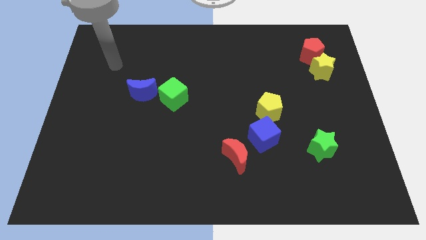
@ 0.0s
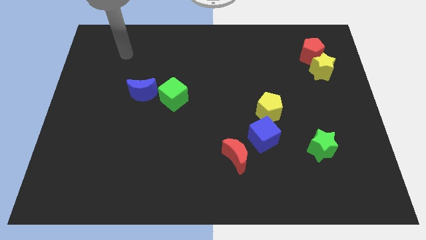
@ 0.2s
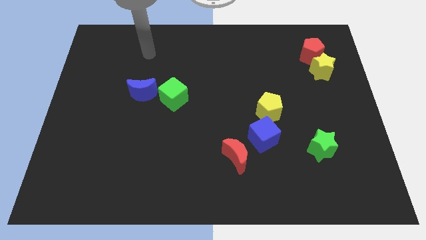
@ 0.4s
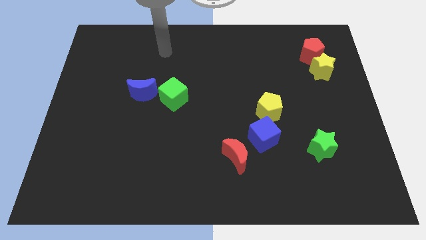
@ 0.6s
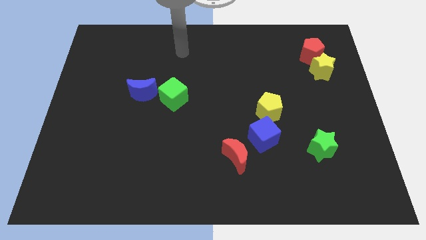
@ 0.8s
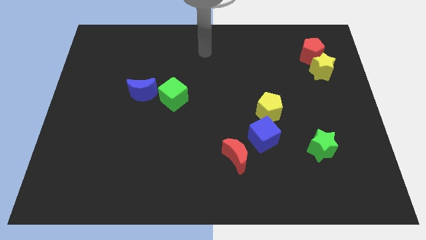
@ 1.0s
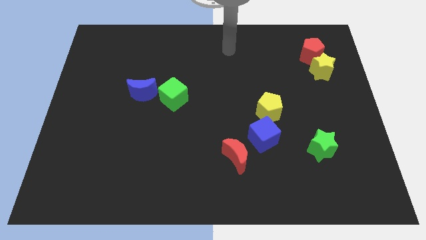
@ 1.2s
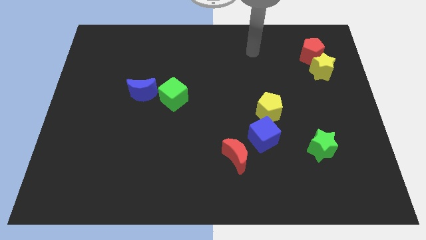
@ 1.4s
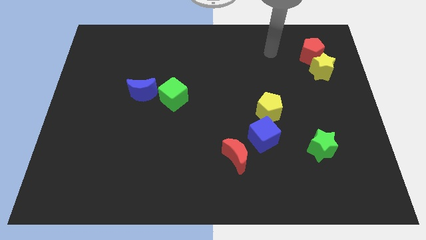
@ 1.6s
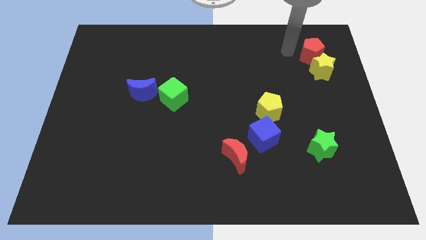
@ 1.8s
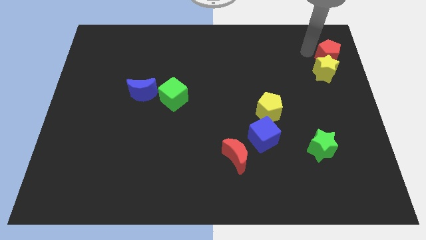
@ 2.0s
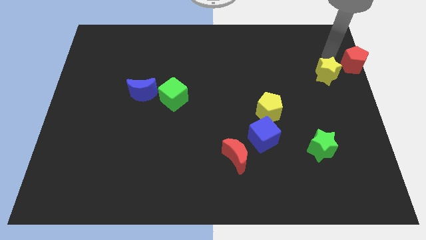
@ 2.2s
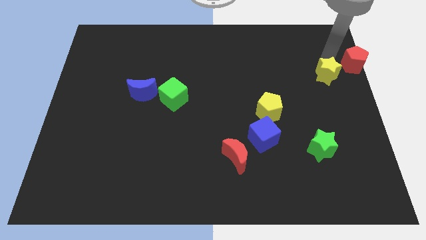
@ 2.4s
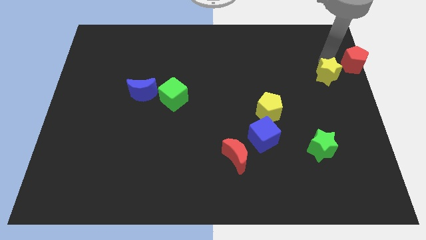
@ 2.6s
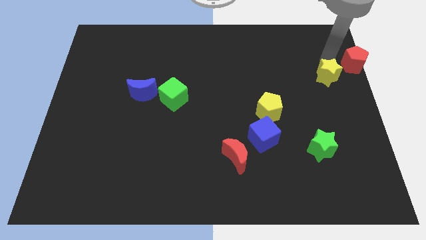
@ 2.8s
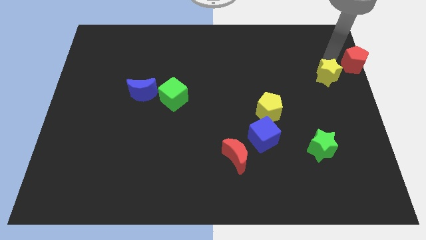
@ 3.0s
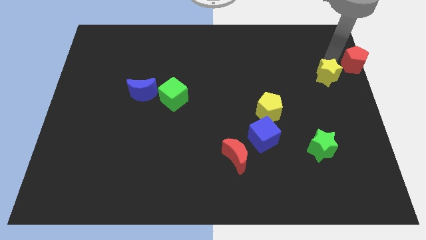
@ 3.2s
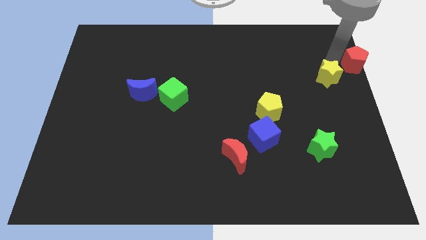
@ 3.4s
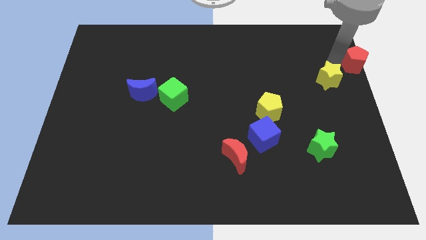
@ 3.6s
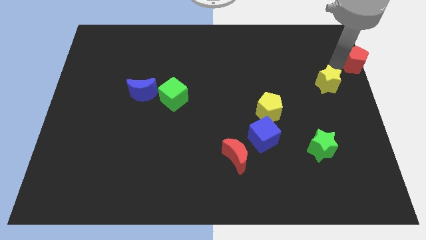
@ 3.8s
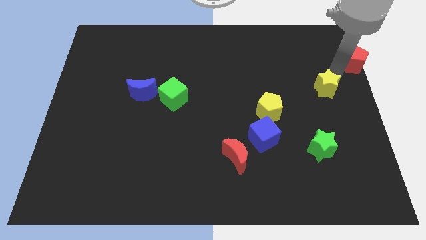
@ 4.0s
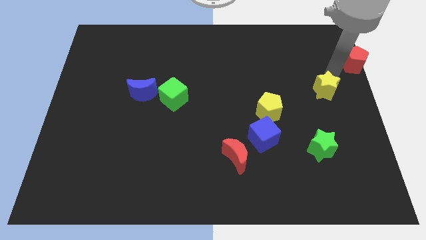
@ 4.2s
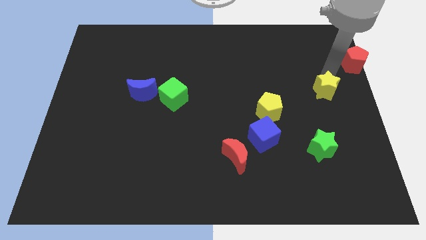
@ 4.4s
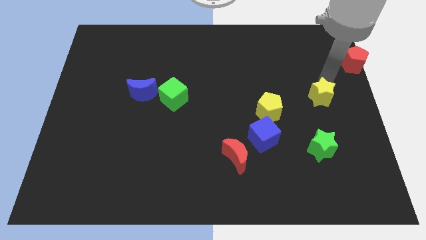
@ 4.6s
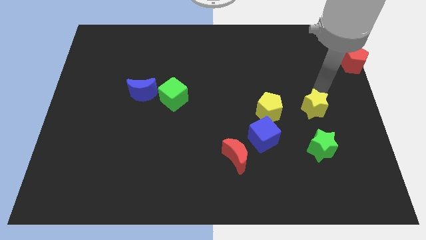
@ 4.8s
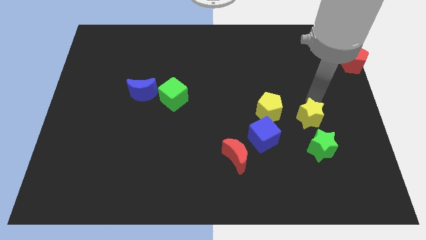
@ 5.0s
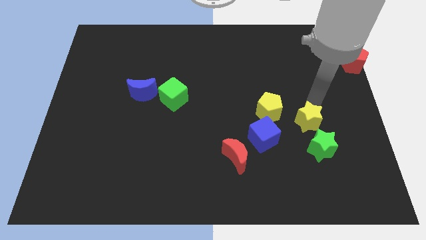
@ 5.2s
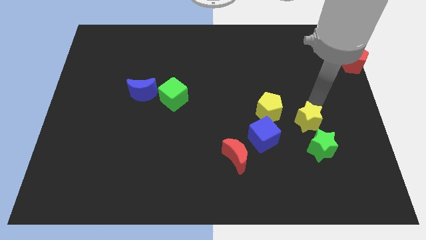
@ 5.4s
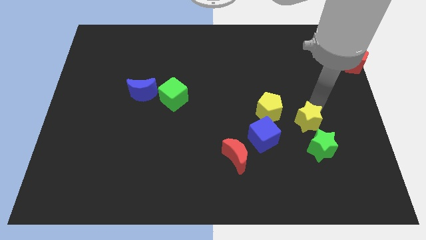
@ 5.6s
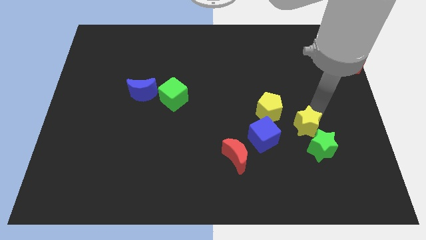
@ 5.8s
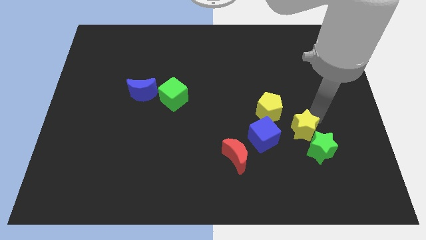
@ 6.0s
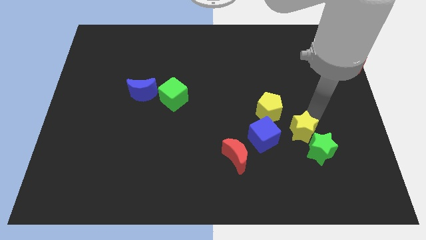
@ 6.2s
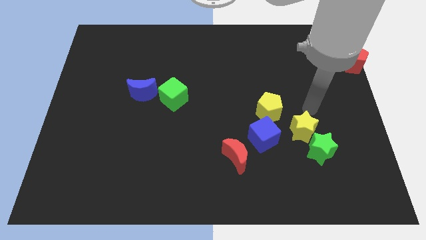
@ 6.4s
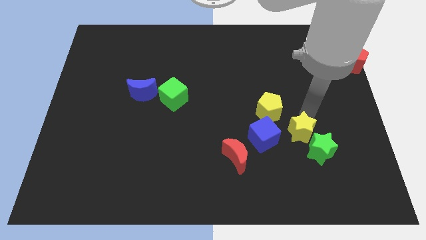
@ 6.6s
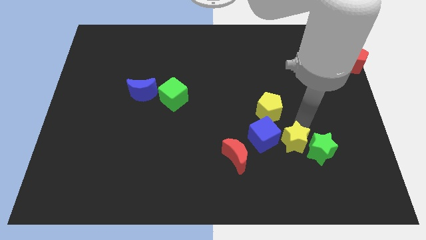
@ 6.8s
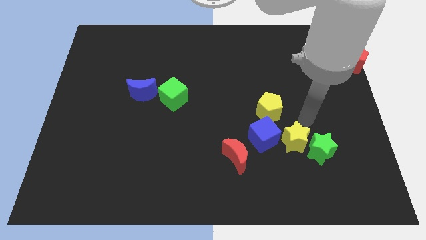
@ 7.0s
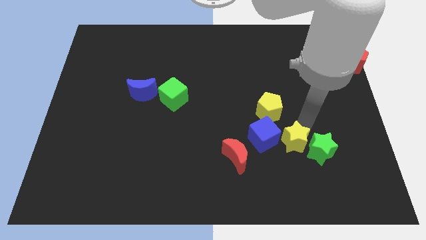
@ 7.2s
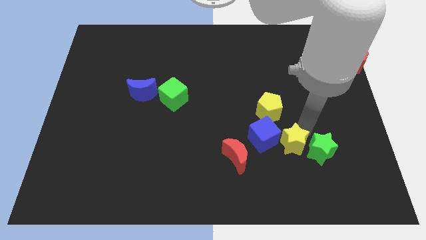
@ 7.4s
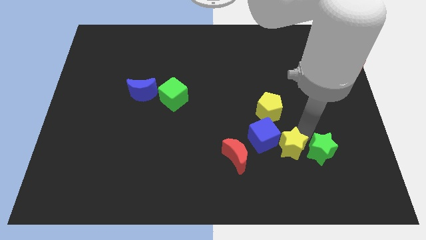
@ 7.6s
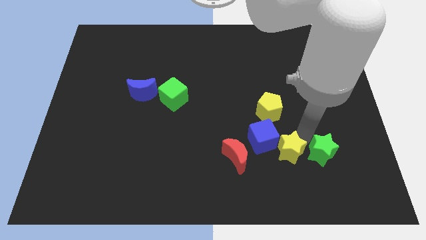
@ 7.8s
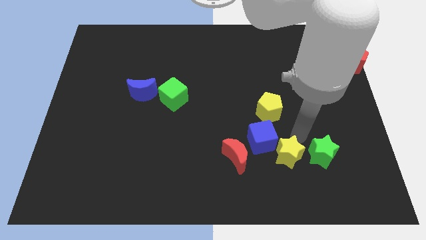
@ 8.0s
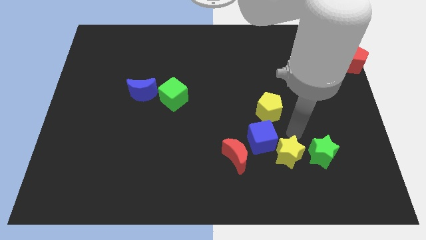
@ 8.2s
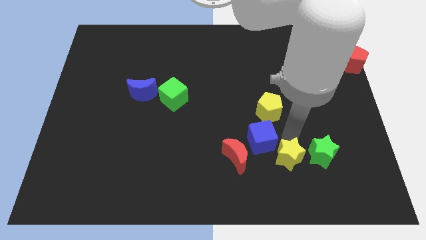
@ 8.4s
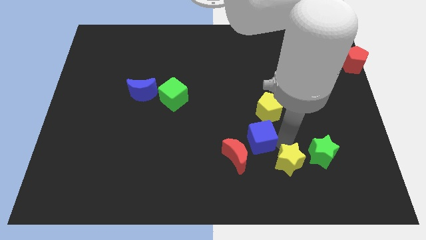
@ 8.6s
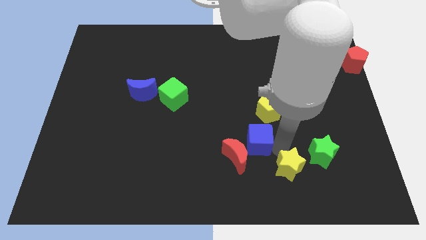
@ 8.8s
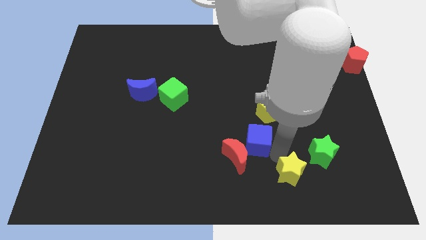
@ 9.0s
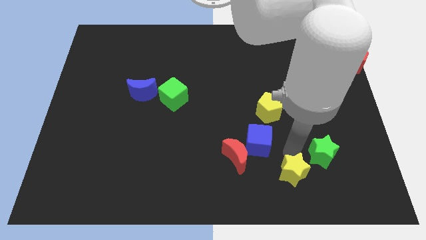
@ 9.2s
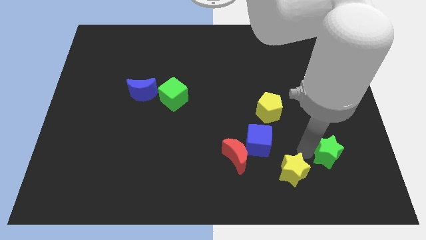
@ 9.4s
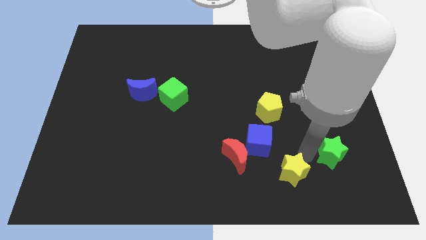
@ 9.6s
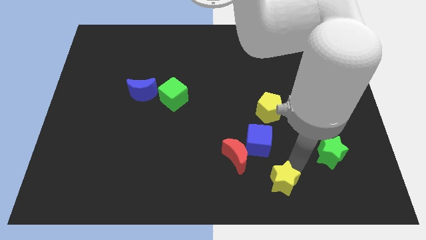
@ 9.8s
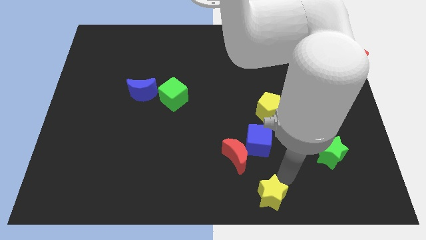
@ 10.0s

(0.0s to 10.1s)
push the yellow star to the bottom
